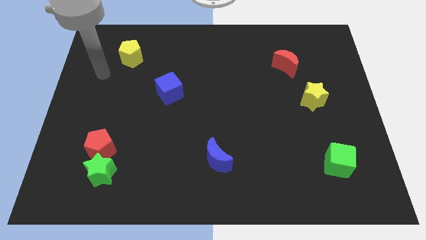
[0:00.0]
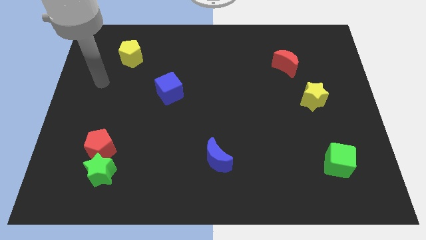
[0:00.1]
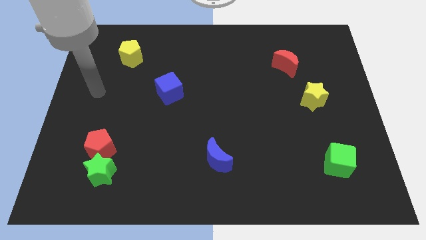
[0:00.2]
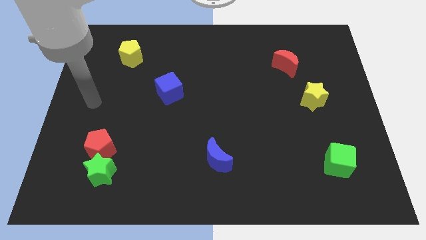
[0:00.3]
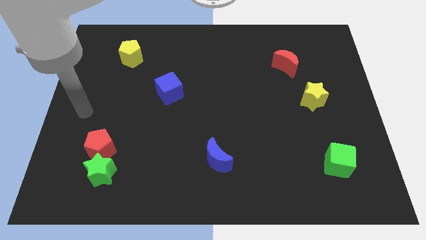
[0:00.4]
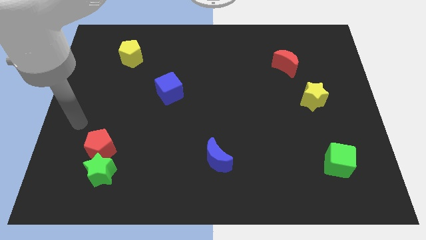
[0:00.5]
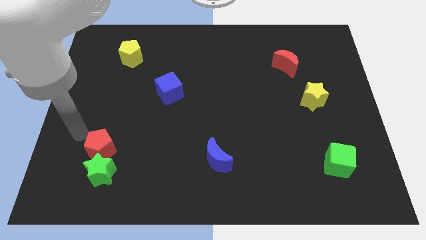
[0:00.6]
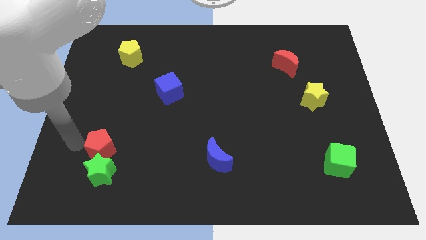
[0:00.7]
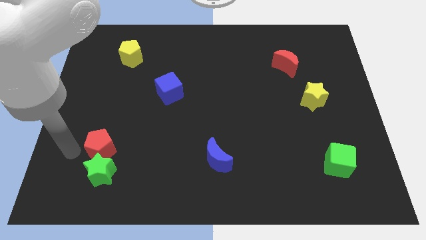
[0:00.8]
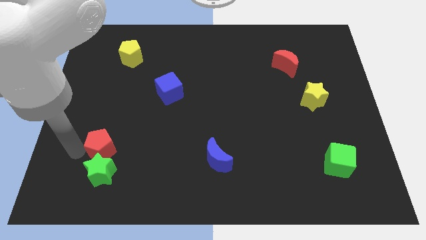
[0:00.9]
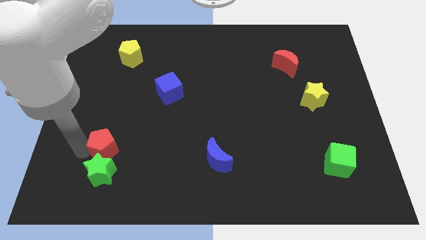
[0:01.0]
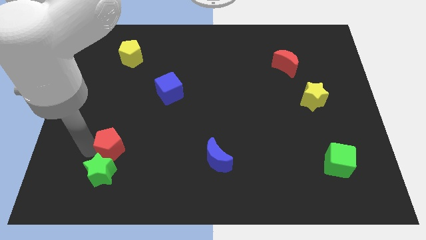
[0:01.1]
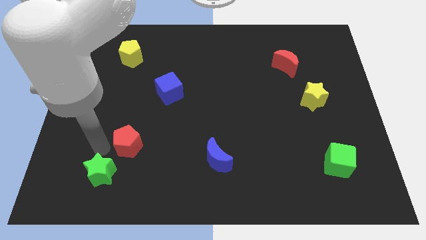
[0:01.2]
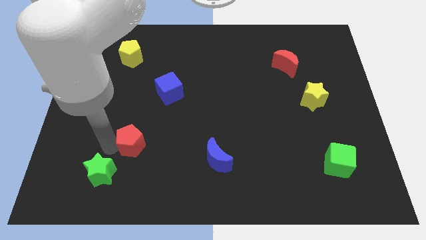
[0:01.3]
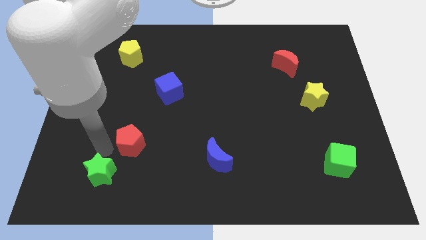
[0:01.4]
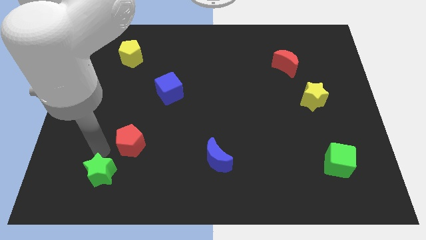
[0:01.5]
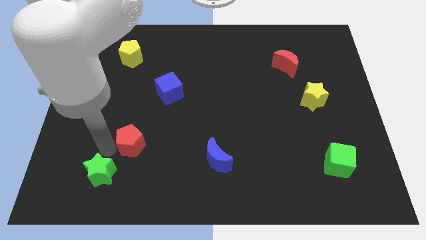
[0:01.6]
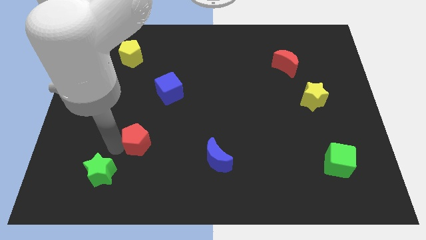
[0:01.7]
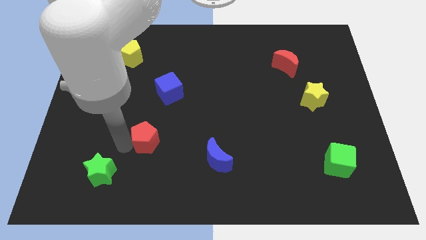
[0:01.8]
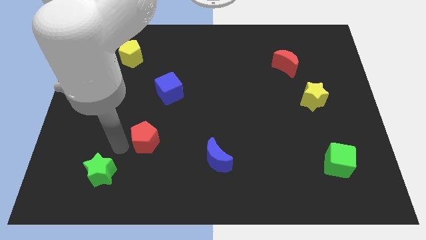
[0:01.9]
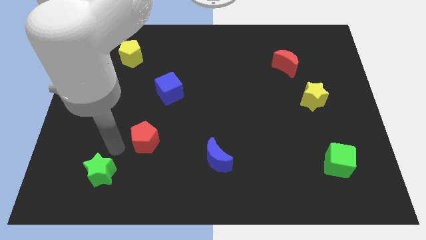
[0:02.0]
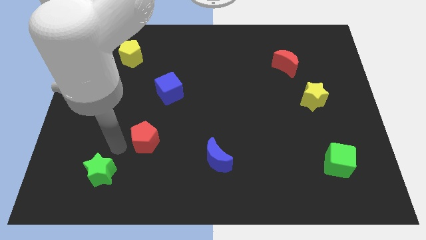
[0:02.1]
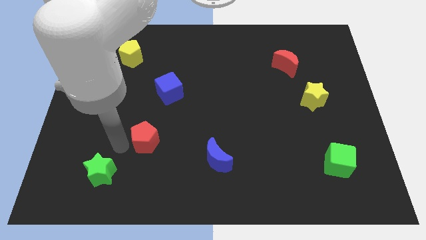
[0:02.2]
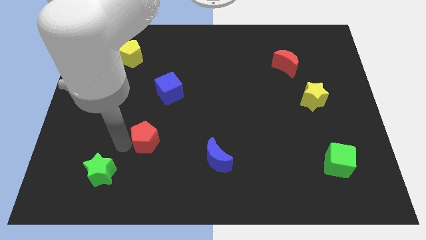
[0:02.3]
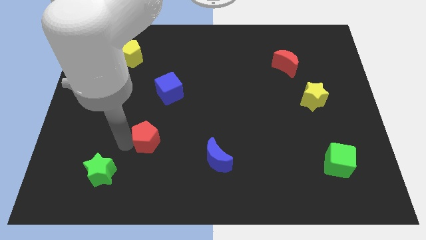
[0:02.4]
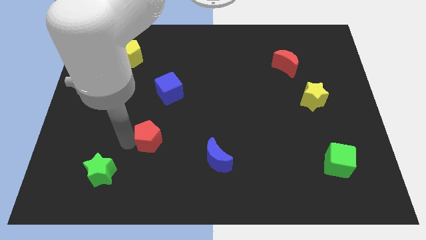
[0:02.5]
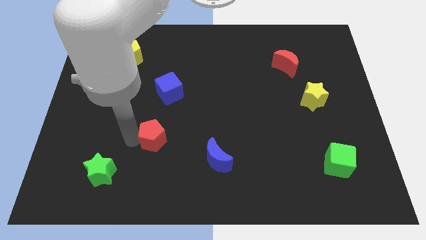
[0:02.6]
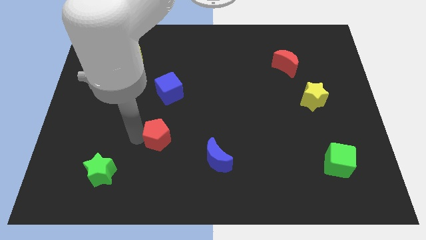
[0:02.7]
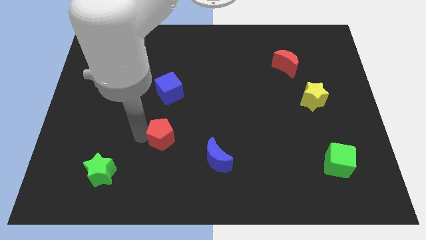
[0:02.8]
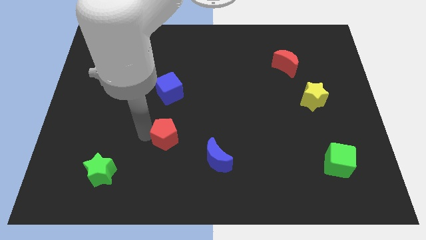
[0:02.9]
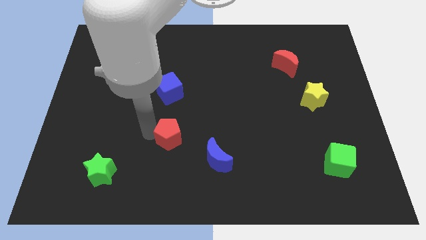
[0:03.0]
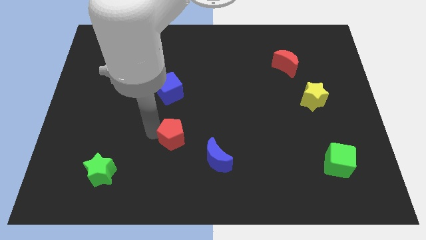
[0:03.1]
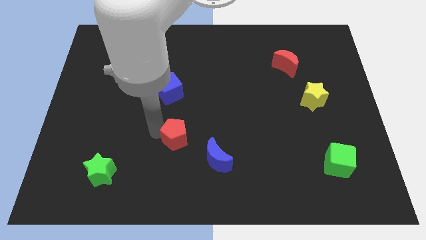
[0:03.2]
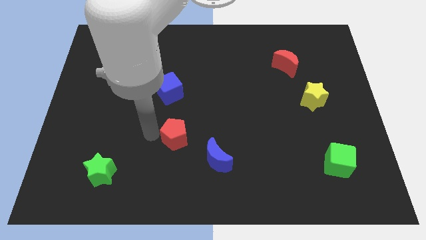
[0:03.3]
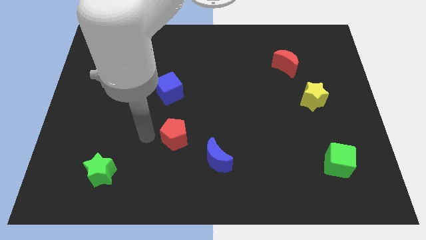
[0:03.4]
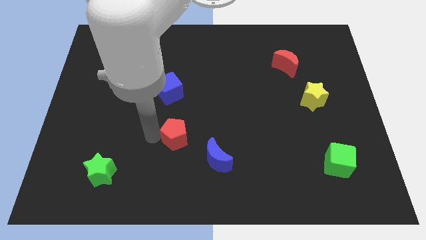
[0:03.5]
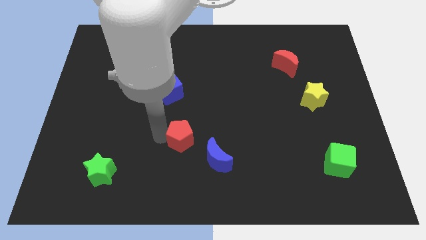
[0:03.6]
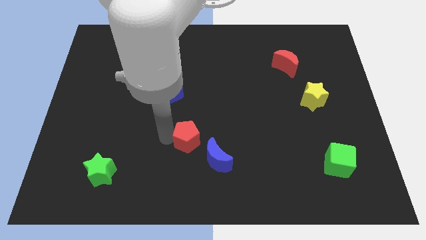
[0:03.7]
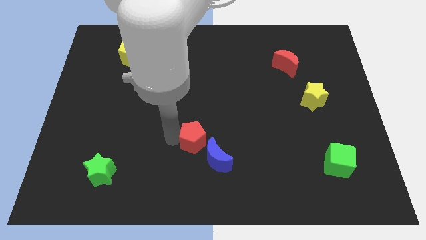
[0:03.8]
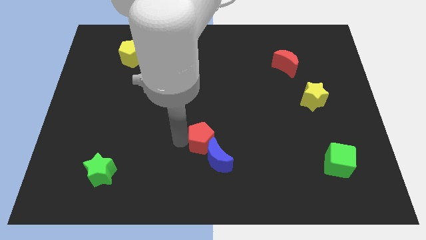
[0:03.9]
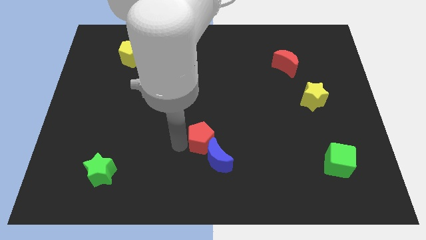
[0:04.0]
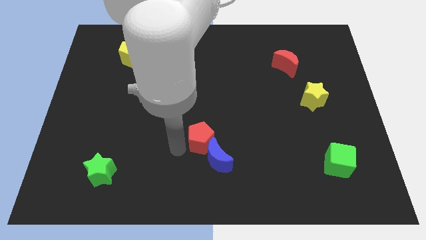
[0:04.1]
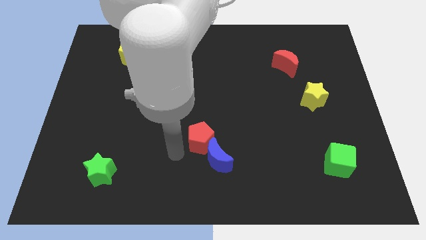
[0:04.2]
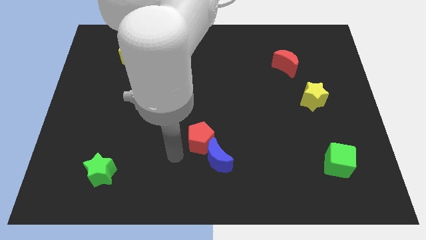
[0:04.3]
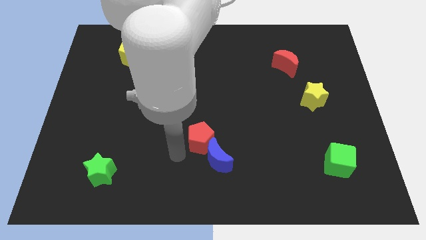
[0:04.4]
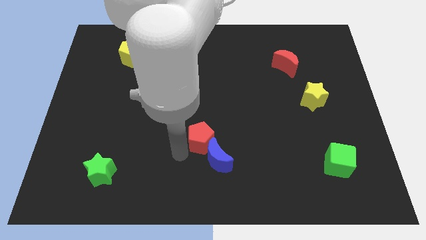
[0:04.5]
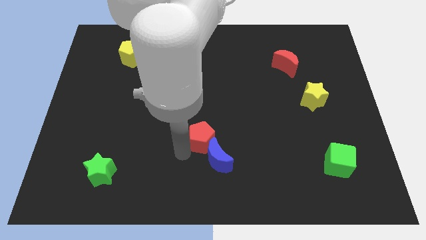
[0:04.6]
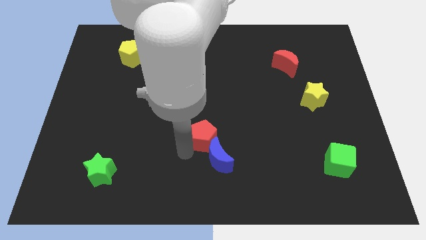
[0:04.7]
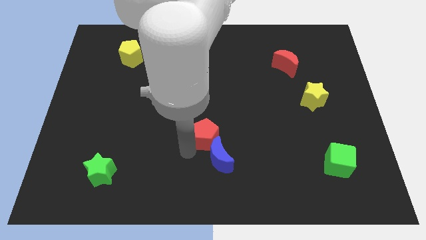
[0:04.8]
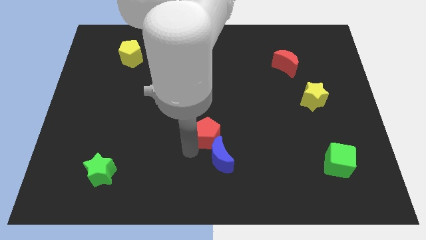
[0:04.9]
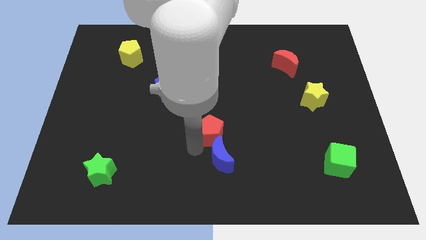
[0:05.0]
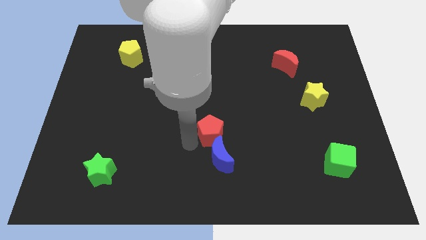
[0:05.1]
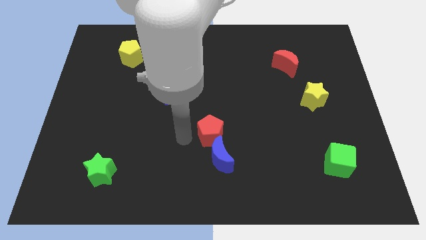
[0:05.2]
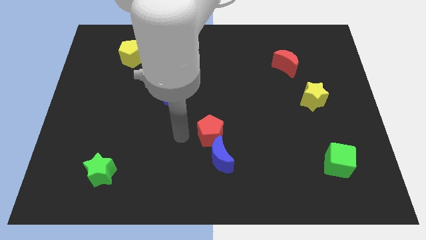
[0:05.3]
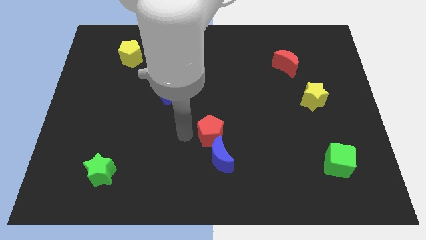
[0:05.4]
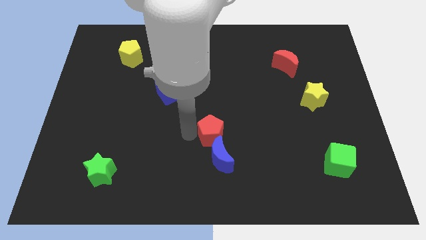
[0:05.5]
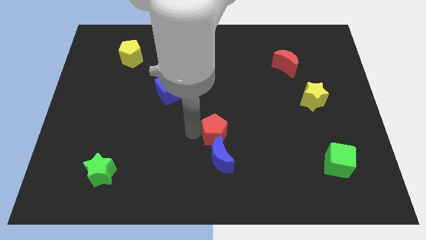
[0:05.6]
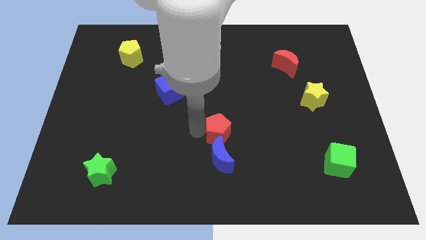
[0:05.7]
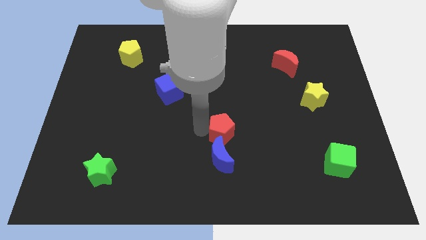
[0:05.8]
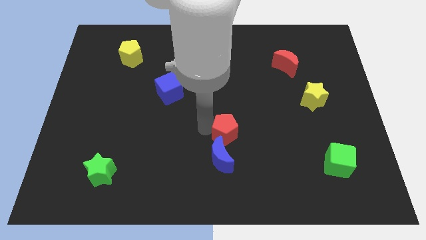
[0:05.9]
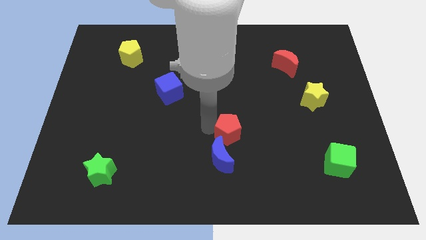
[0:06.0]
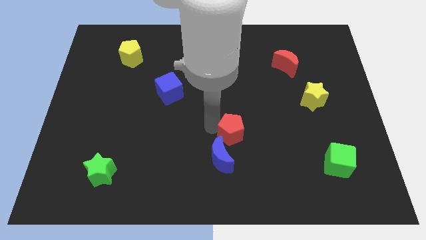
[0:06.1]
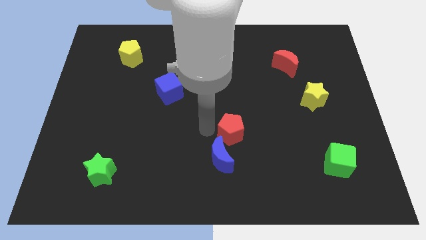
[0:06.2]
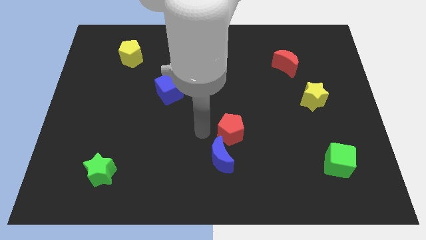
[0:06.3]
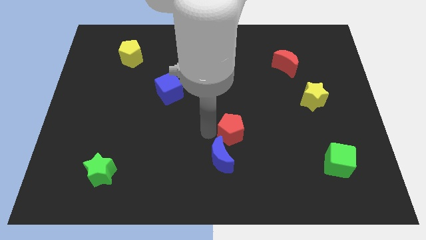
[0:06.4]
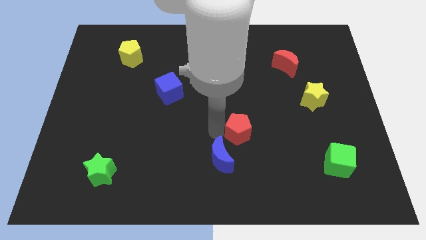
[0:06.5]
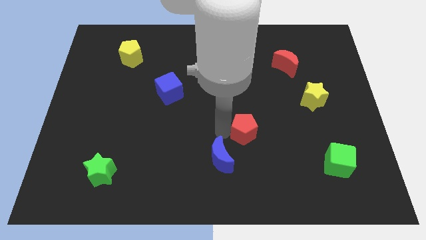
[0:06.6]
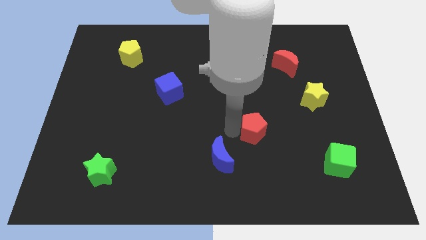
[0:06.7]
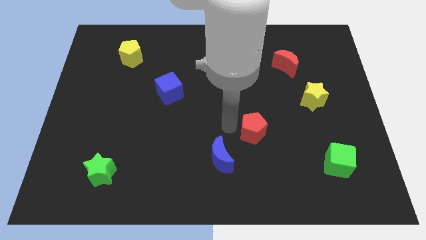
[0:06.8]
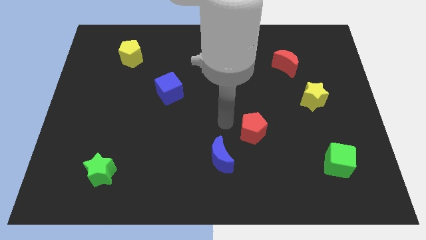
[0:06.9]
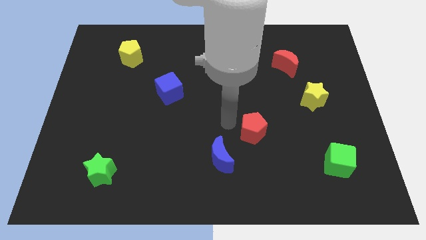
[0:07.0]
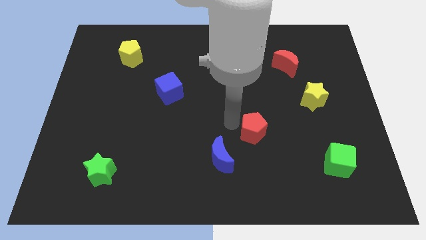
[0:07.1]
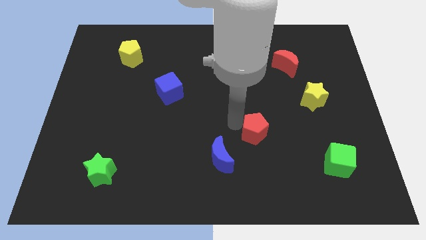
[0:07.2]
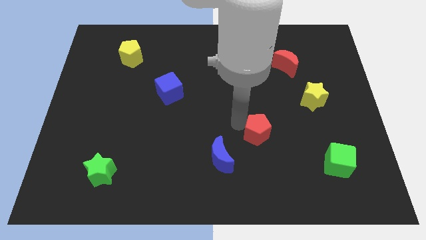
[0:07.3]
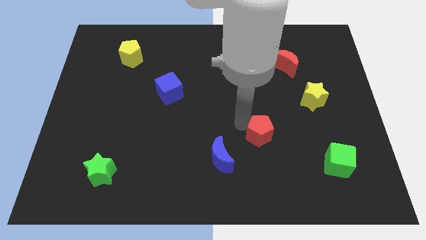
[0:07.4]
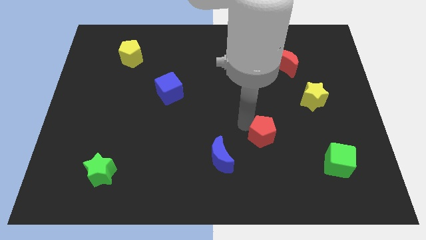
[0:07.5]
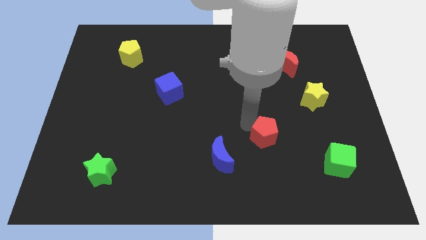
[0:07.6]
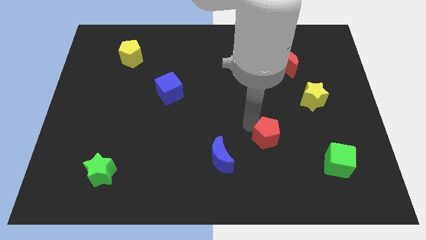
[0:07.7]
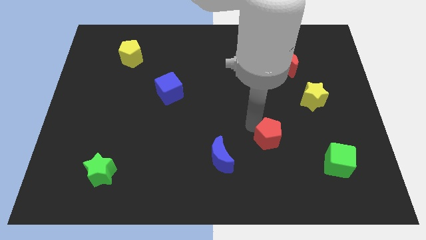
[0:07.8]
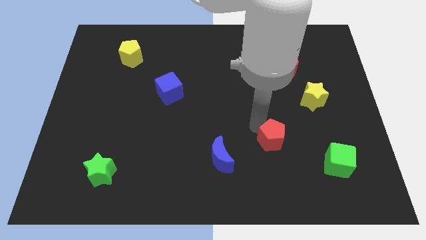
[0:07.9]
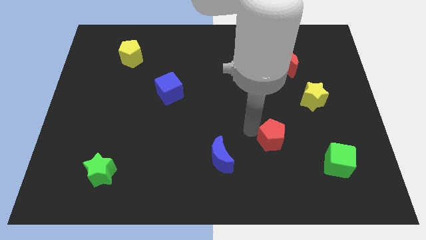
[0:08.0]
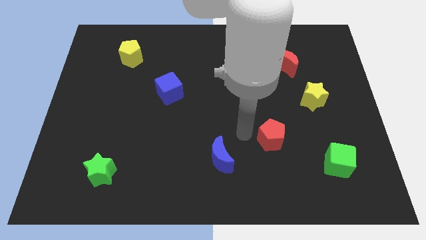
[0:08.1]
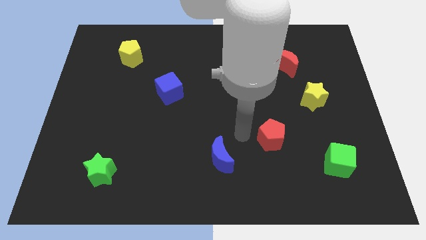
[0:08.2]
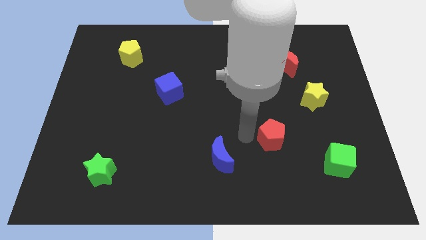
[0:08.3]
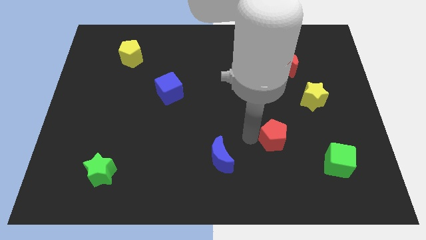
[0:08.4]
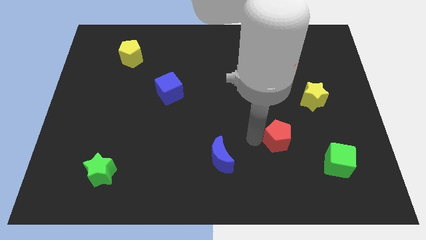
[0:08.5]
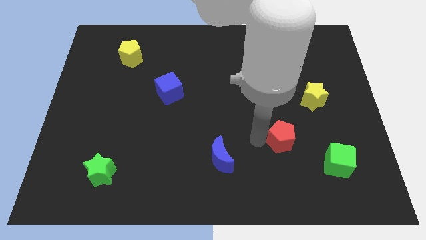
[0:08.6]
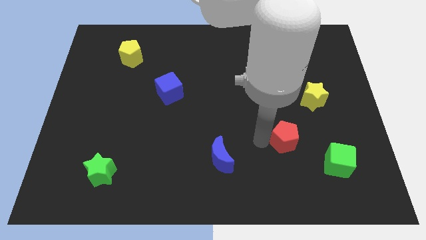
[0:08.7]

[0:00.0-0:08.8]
put the red pentagon to the top left of the green cube
